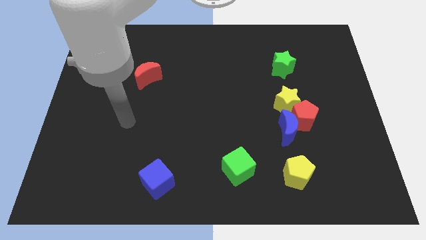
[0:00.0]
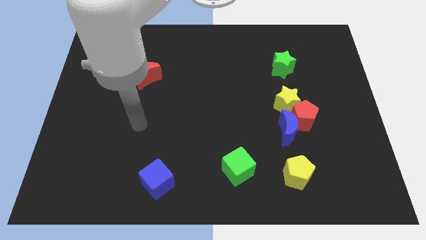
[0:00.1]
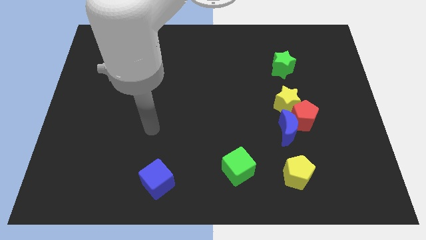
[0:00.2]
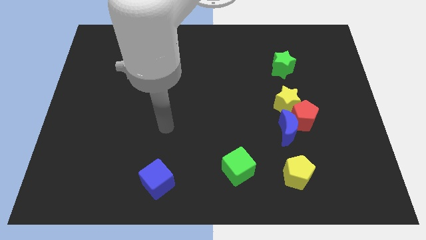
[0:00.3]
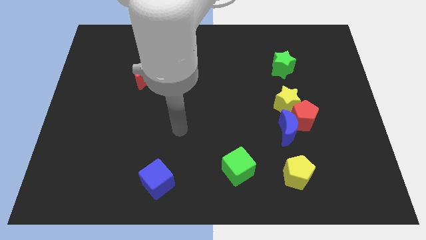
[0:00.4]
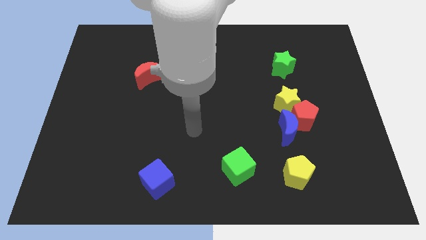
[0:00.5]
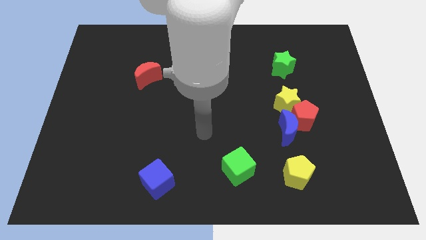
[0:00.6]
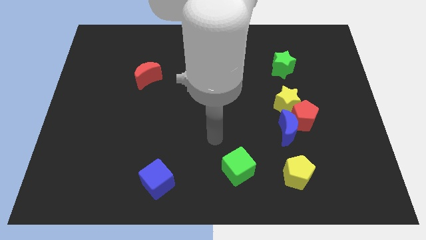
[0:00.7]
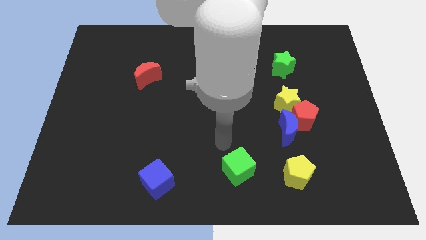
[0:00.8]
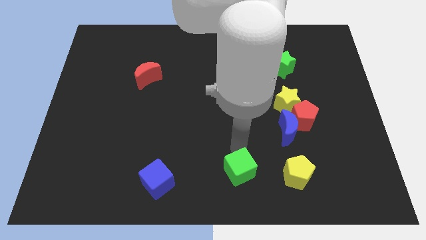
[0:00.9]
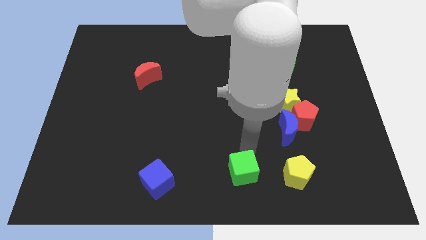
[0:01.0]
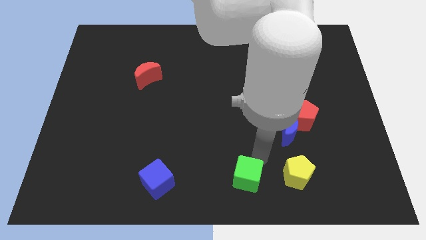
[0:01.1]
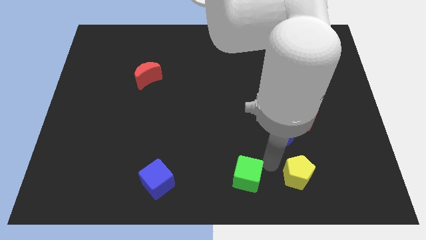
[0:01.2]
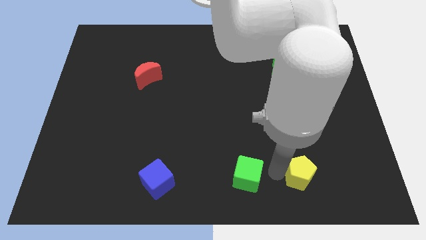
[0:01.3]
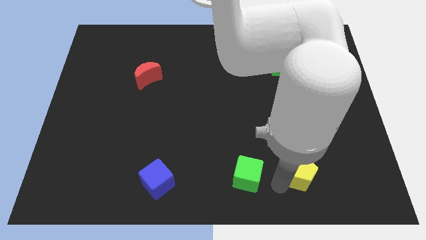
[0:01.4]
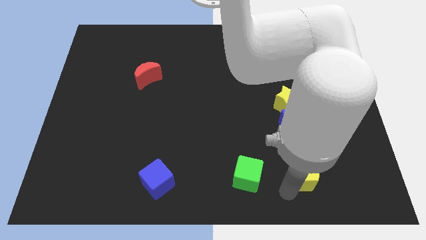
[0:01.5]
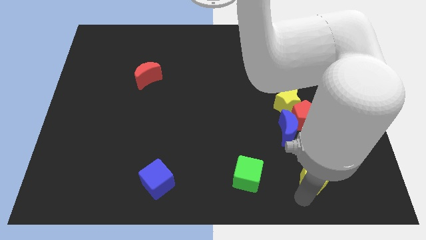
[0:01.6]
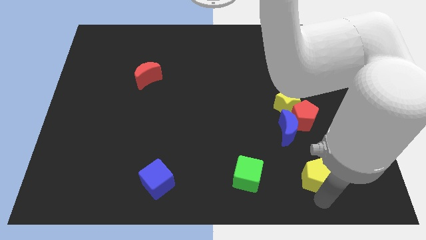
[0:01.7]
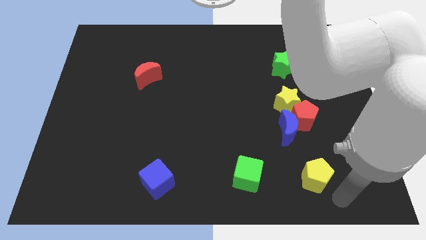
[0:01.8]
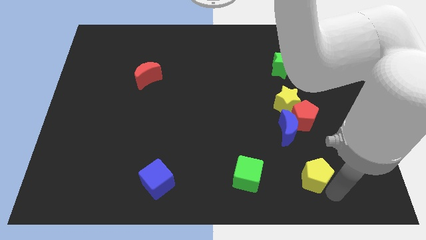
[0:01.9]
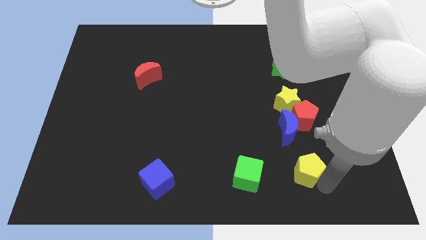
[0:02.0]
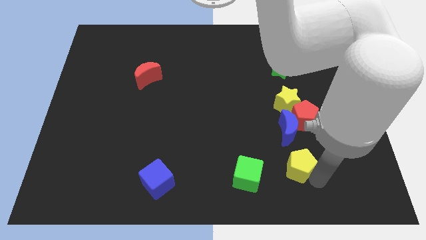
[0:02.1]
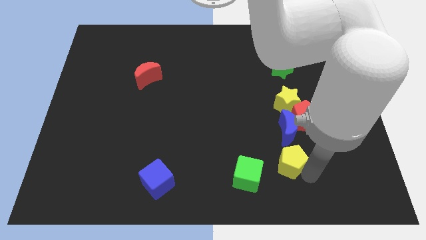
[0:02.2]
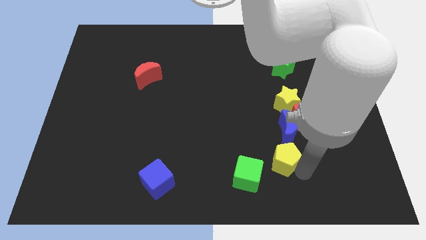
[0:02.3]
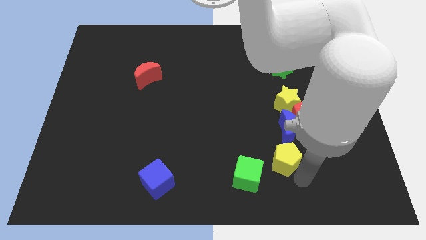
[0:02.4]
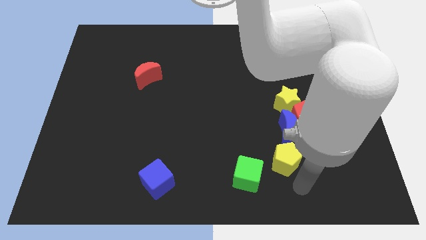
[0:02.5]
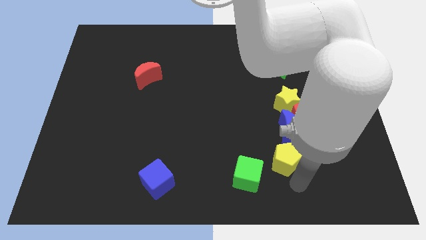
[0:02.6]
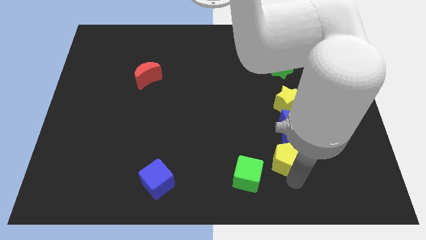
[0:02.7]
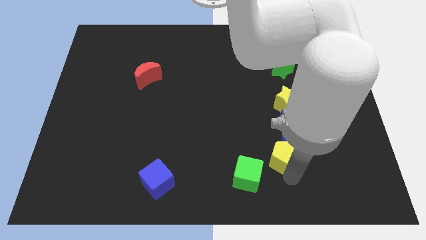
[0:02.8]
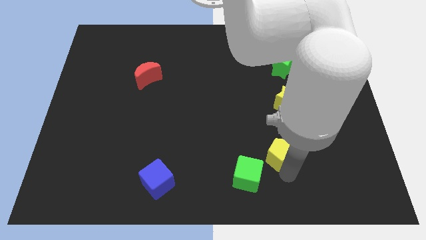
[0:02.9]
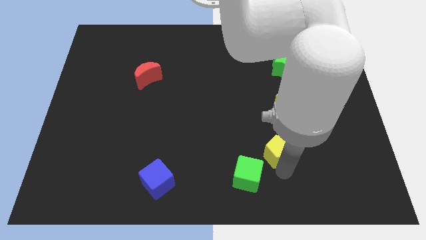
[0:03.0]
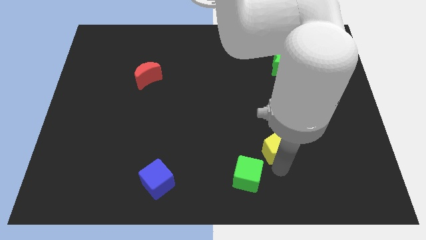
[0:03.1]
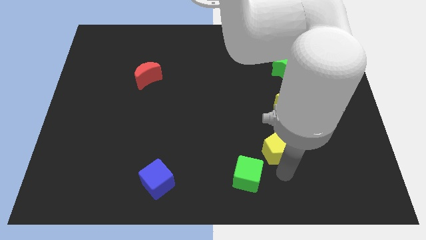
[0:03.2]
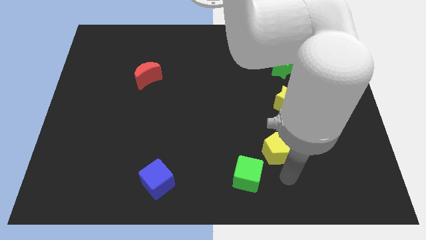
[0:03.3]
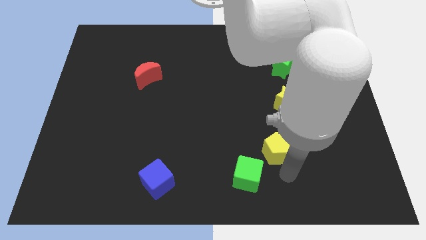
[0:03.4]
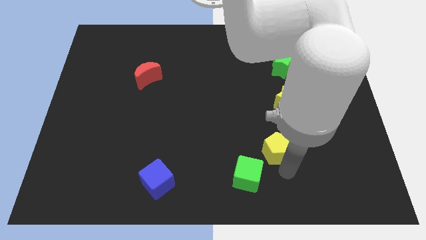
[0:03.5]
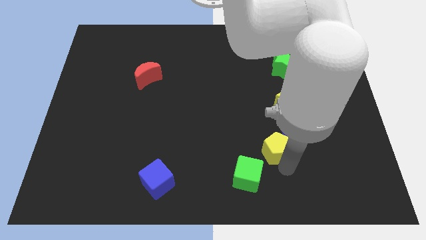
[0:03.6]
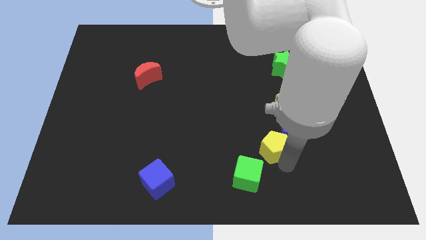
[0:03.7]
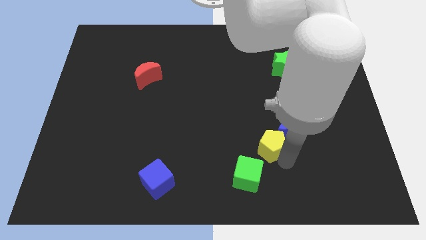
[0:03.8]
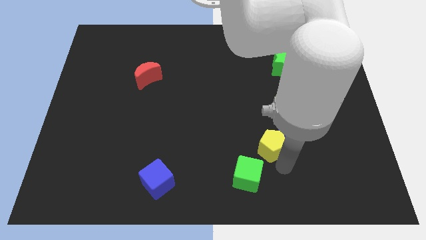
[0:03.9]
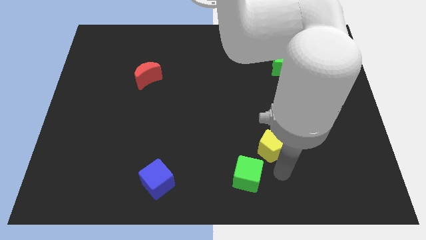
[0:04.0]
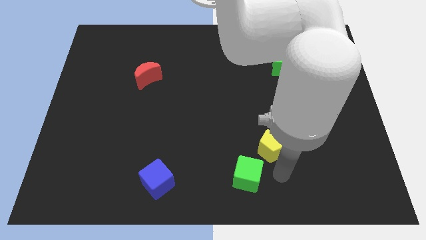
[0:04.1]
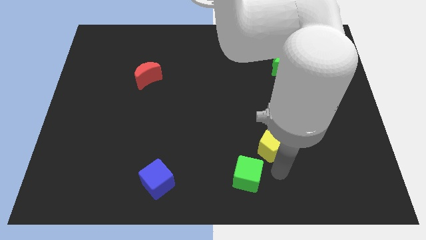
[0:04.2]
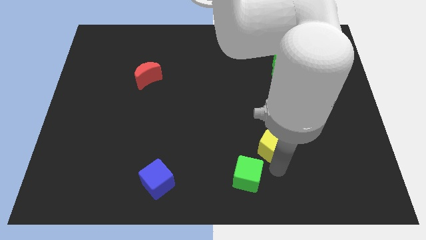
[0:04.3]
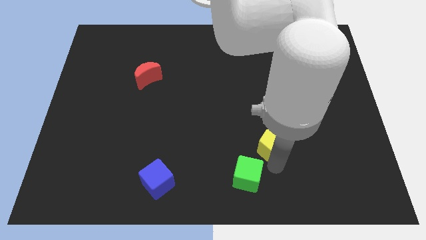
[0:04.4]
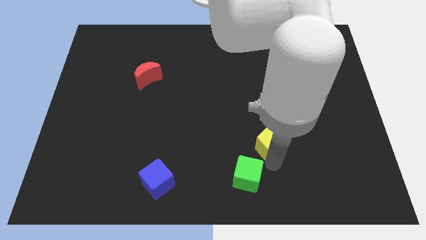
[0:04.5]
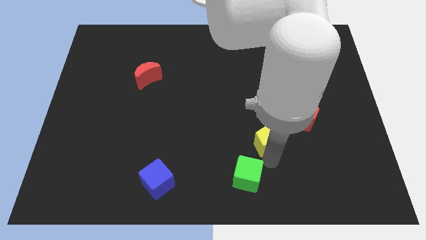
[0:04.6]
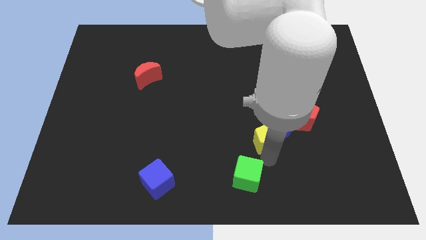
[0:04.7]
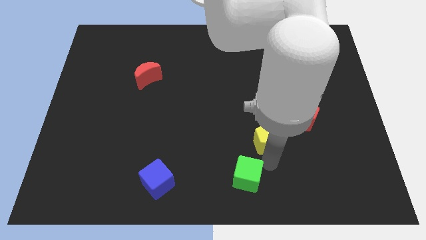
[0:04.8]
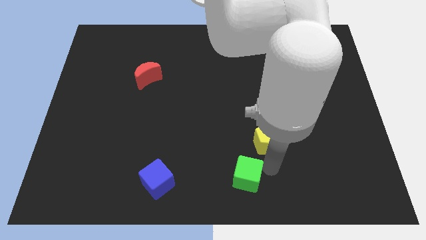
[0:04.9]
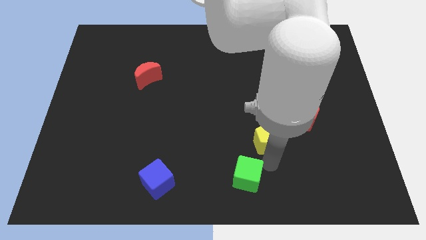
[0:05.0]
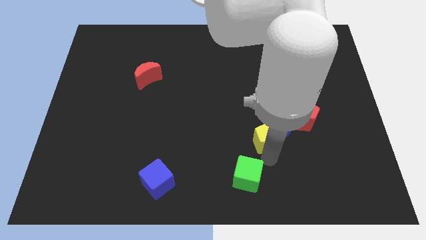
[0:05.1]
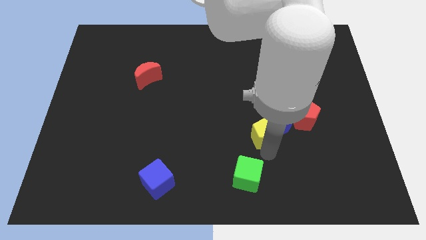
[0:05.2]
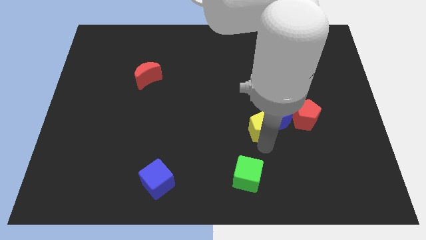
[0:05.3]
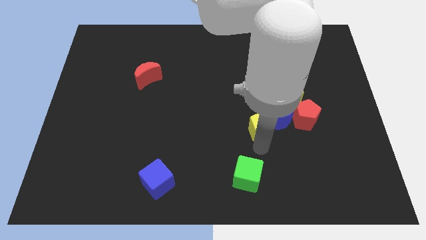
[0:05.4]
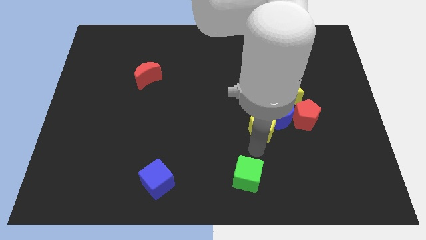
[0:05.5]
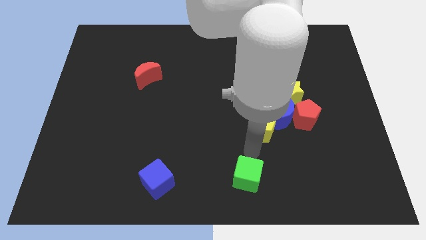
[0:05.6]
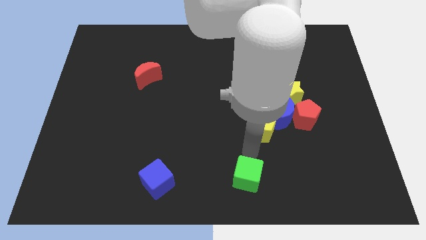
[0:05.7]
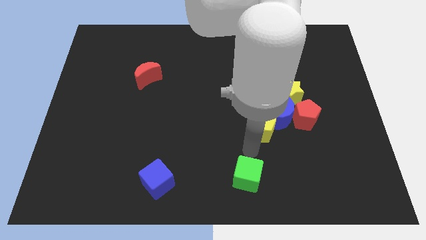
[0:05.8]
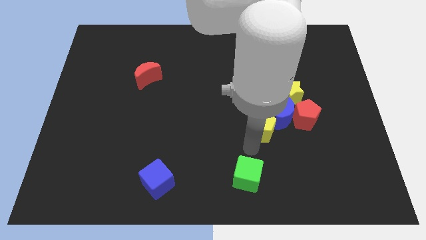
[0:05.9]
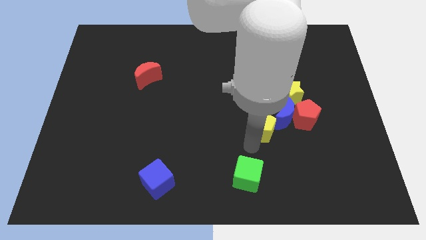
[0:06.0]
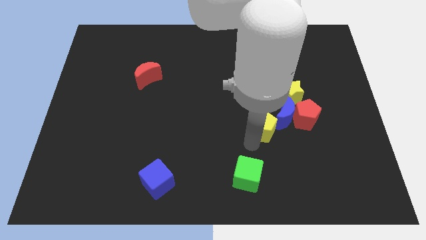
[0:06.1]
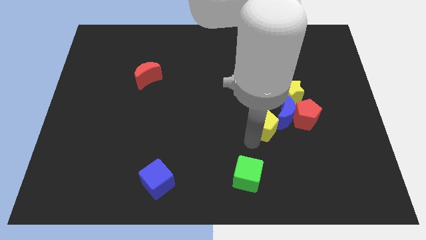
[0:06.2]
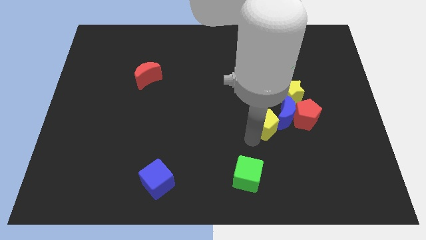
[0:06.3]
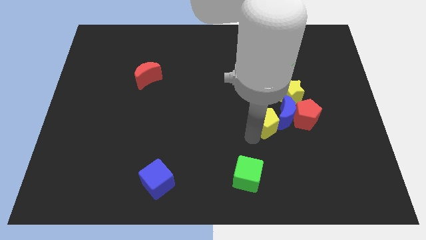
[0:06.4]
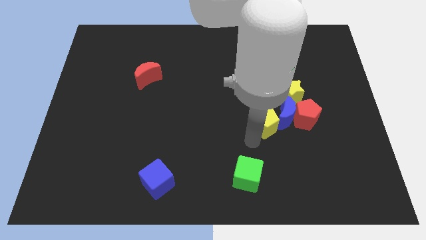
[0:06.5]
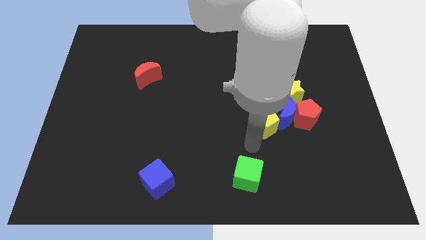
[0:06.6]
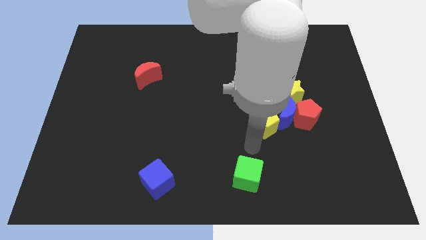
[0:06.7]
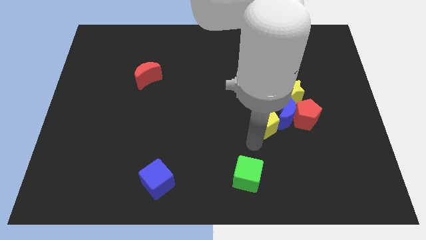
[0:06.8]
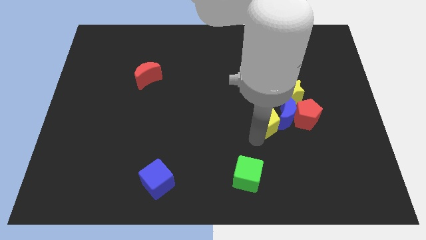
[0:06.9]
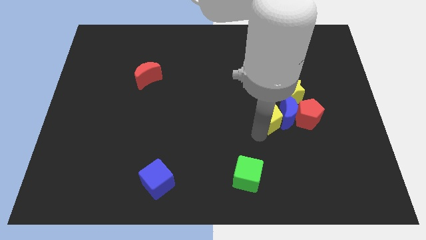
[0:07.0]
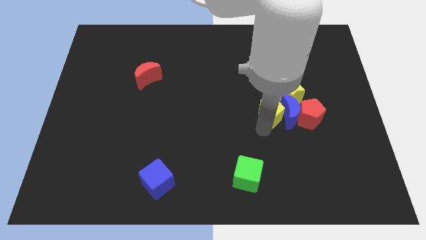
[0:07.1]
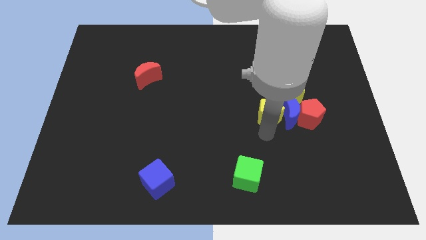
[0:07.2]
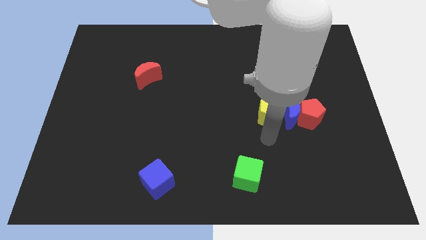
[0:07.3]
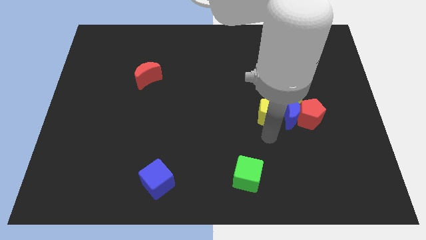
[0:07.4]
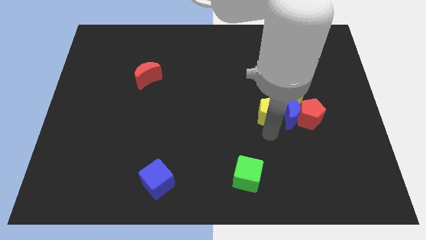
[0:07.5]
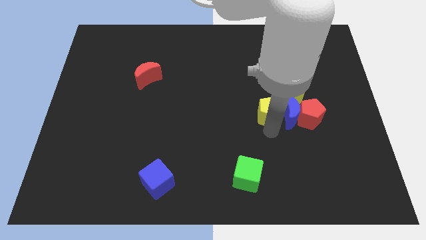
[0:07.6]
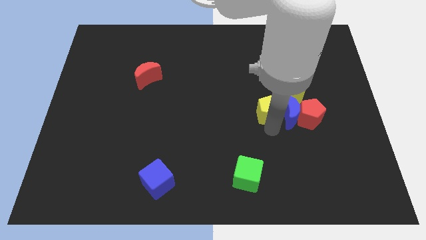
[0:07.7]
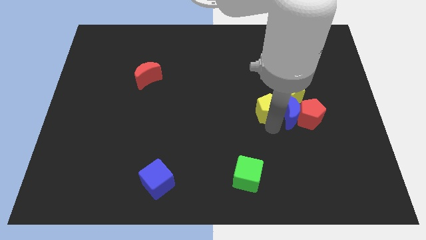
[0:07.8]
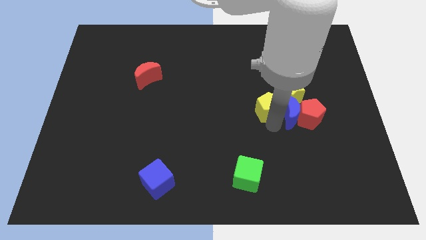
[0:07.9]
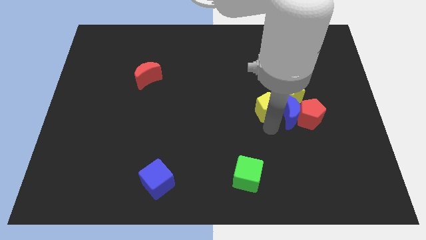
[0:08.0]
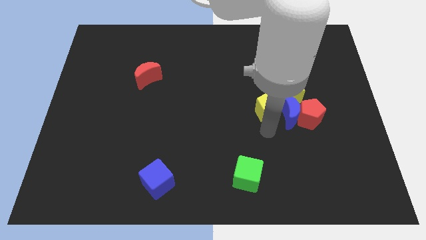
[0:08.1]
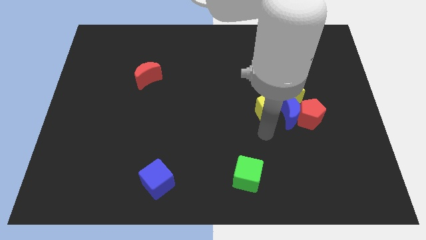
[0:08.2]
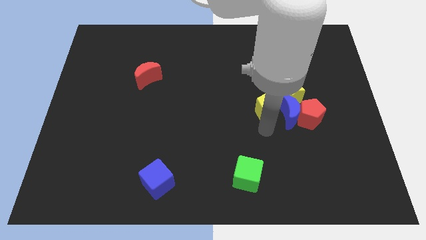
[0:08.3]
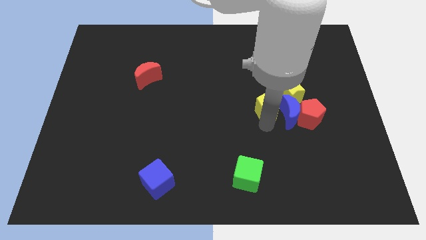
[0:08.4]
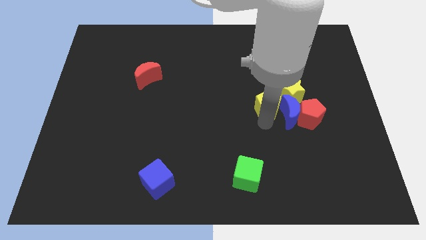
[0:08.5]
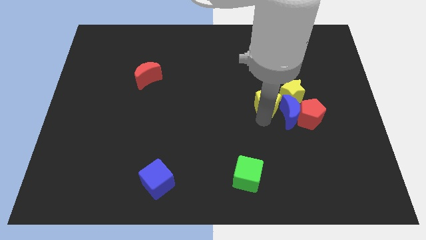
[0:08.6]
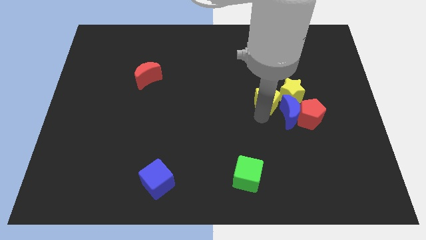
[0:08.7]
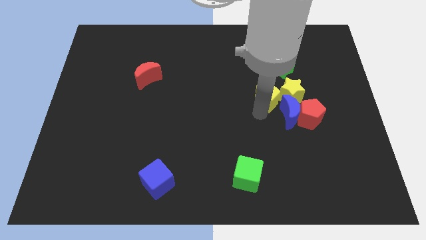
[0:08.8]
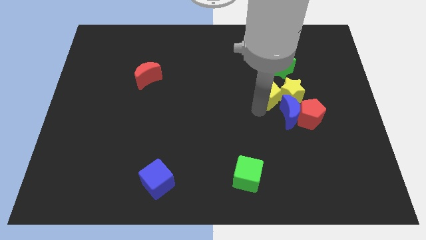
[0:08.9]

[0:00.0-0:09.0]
move the yellow pentagon to the top of the blue moon
